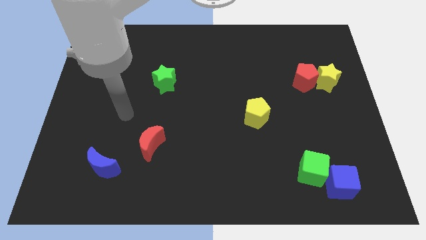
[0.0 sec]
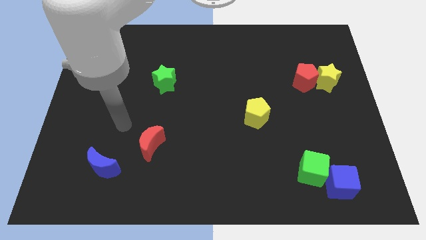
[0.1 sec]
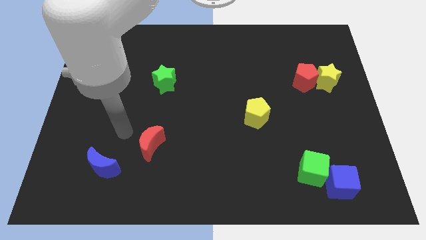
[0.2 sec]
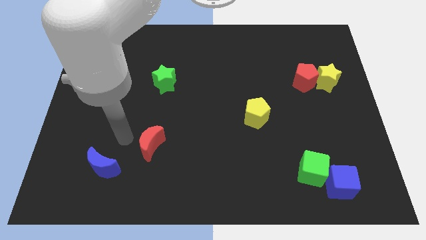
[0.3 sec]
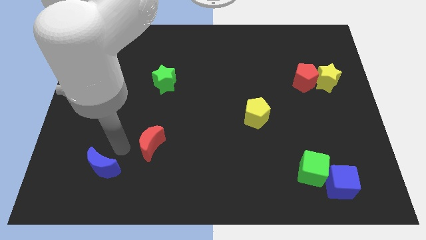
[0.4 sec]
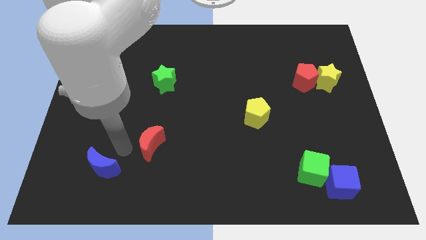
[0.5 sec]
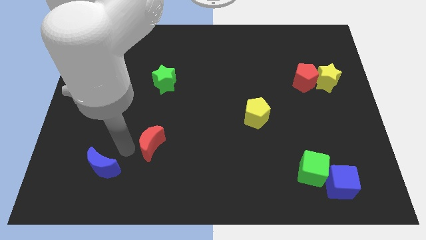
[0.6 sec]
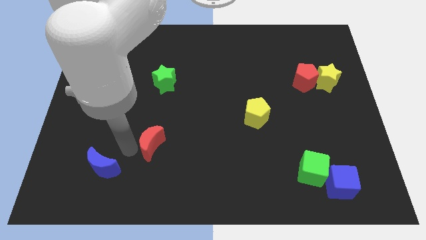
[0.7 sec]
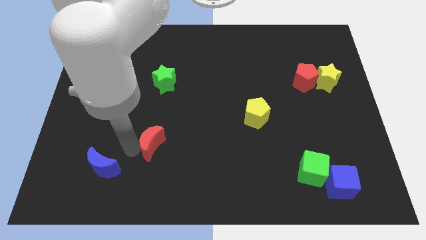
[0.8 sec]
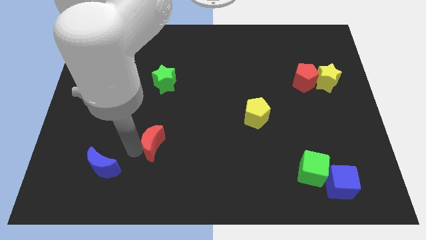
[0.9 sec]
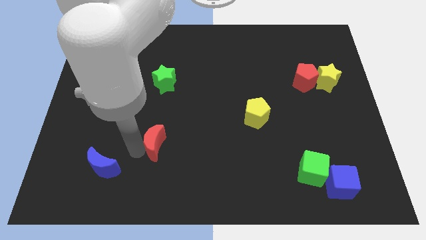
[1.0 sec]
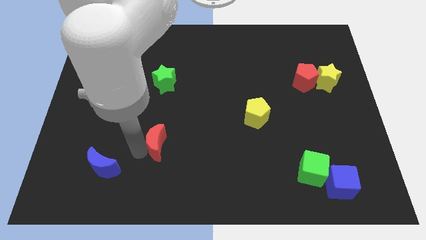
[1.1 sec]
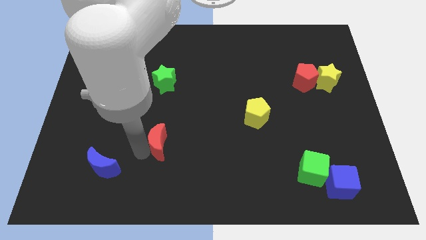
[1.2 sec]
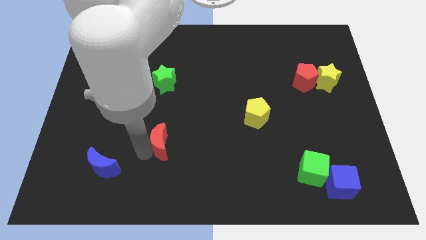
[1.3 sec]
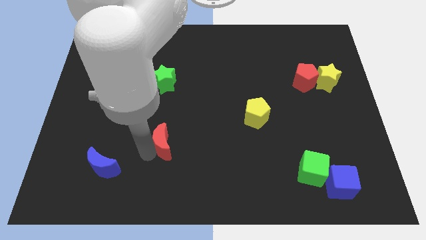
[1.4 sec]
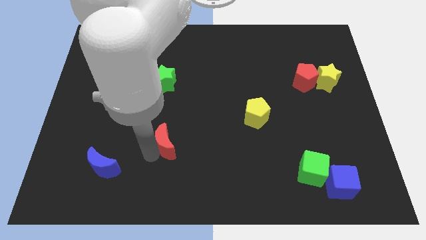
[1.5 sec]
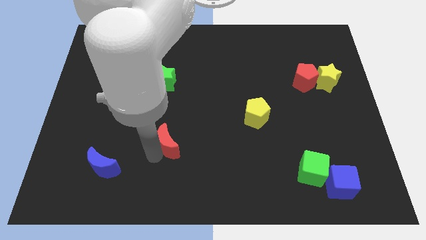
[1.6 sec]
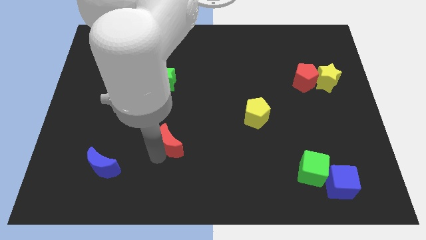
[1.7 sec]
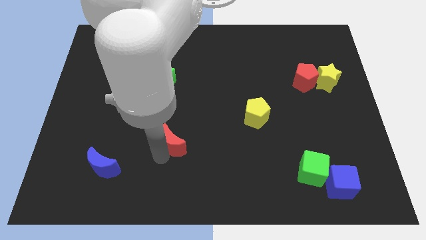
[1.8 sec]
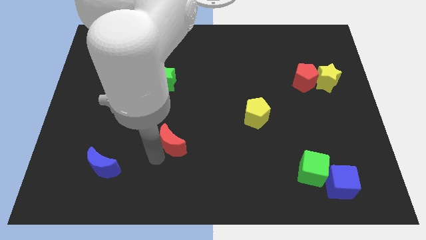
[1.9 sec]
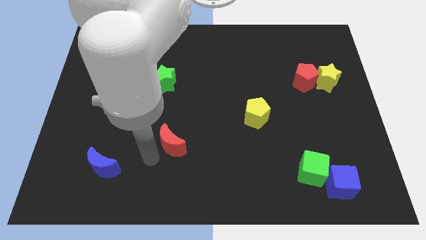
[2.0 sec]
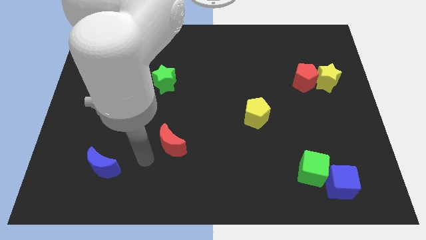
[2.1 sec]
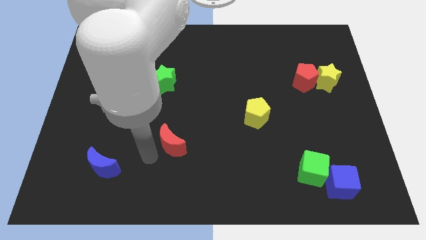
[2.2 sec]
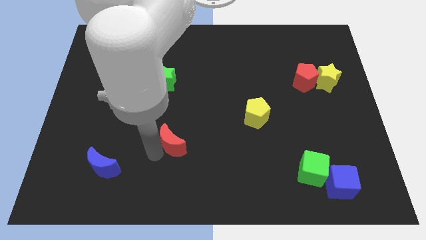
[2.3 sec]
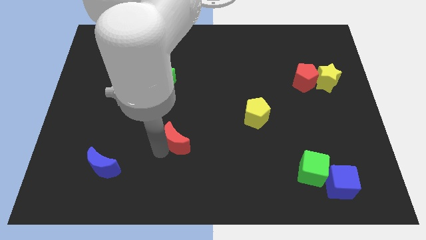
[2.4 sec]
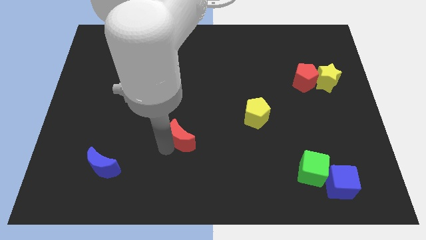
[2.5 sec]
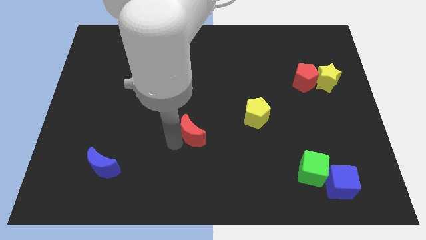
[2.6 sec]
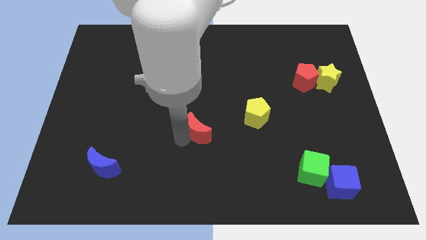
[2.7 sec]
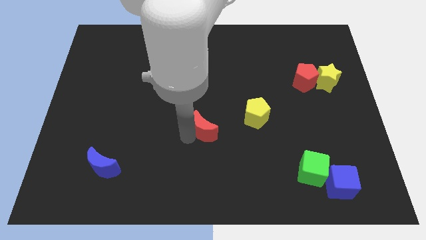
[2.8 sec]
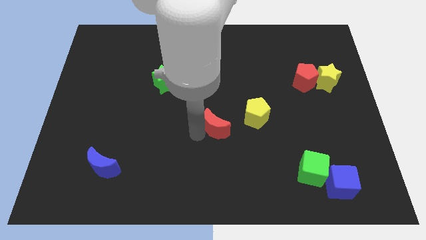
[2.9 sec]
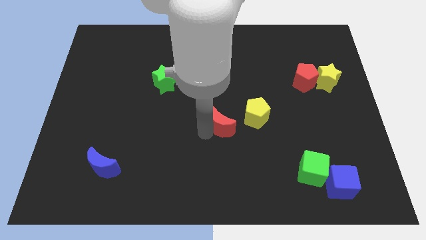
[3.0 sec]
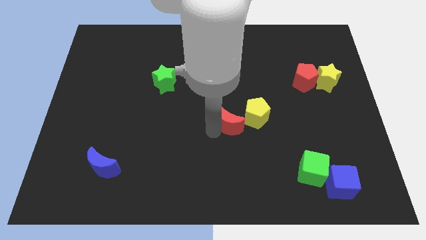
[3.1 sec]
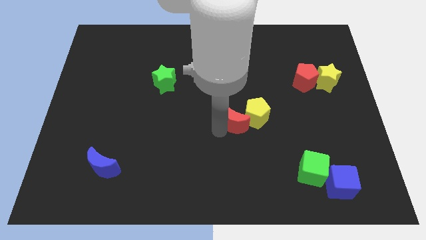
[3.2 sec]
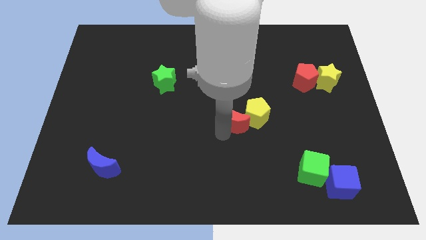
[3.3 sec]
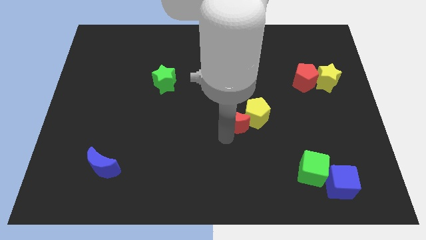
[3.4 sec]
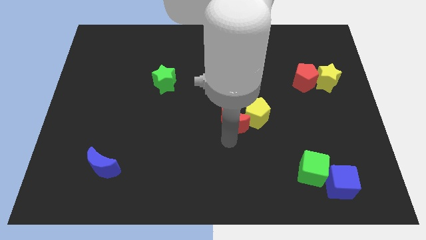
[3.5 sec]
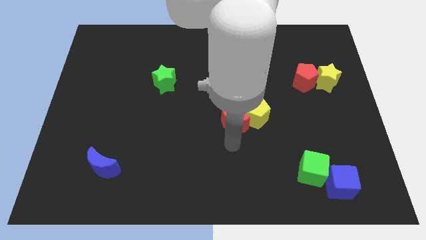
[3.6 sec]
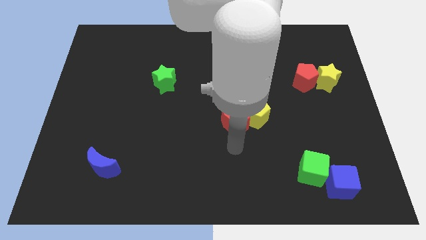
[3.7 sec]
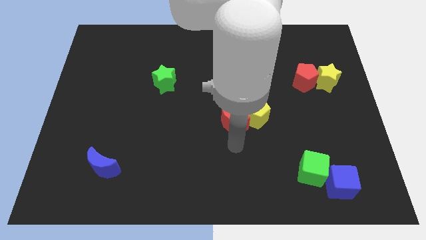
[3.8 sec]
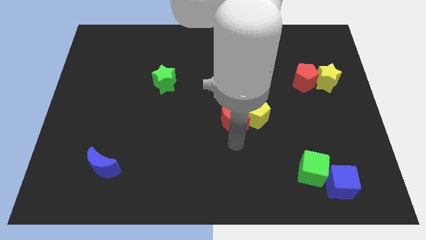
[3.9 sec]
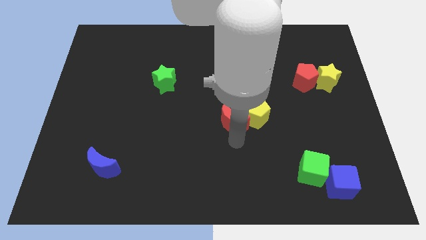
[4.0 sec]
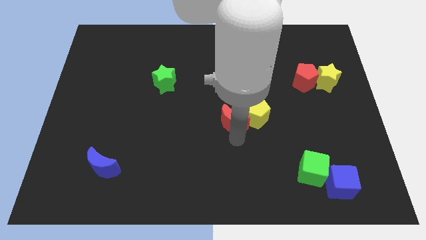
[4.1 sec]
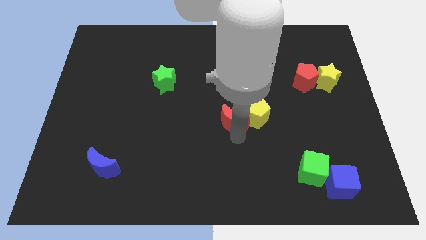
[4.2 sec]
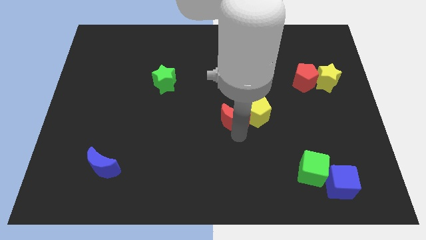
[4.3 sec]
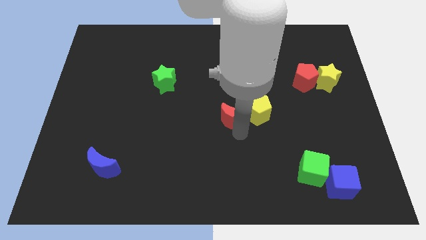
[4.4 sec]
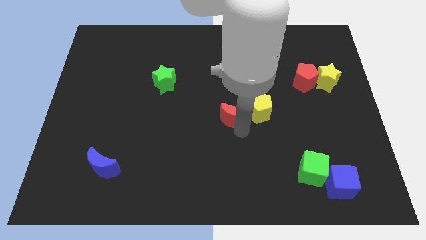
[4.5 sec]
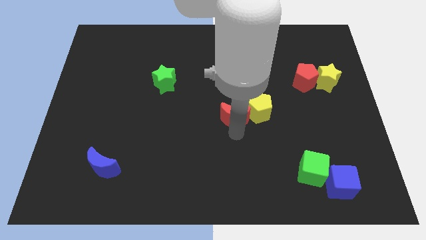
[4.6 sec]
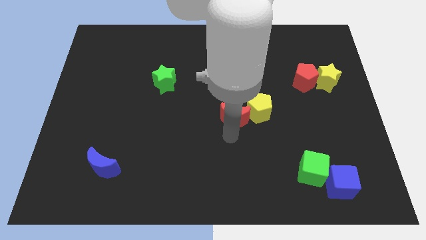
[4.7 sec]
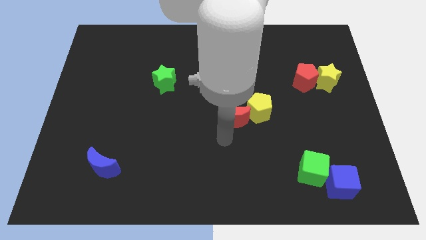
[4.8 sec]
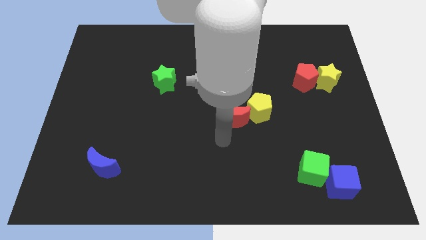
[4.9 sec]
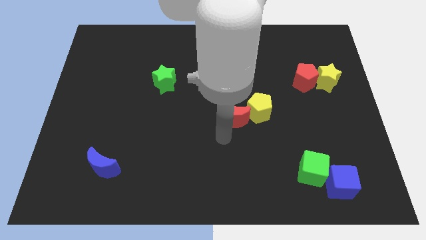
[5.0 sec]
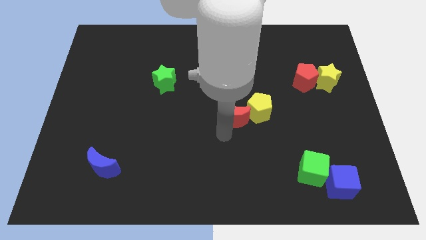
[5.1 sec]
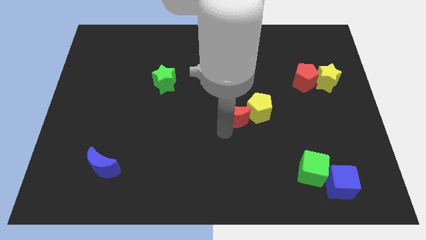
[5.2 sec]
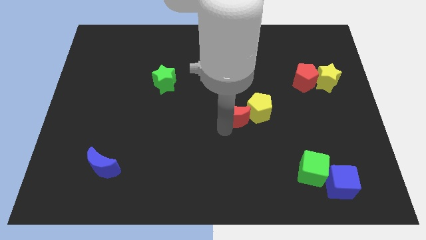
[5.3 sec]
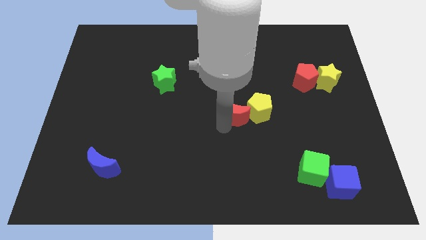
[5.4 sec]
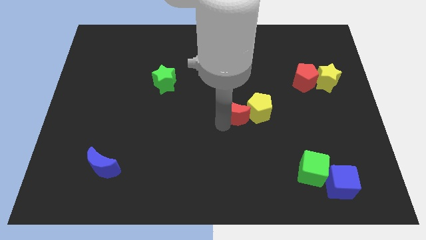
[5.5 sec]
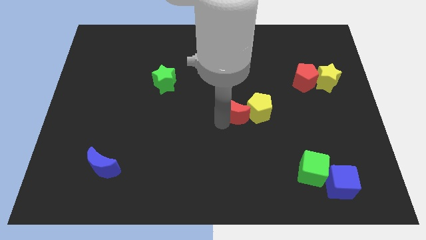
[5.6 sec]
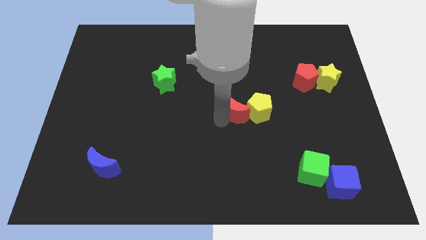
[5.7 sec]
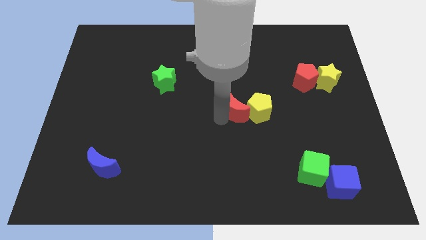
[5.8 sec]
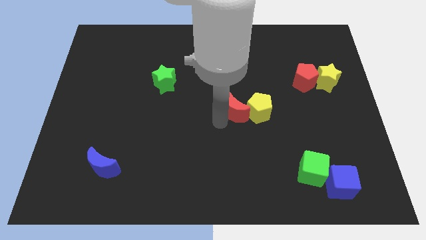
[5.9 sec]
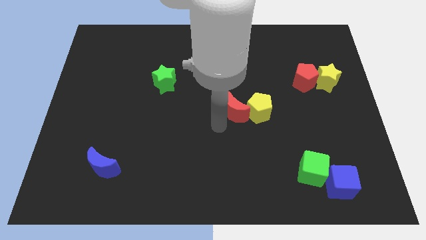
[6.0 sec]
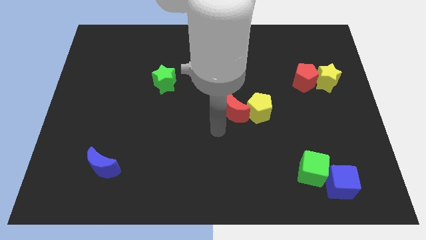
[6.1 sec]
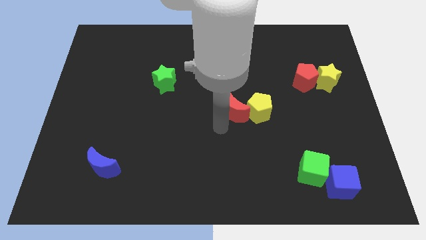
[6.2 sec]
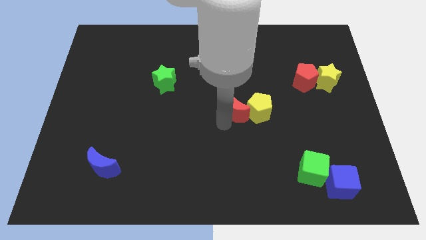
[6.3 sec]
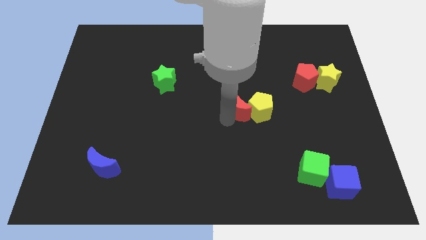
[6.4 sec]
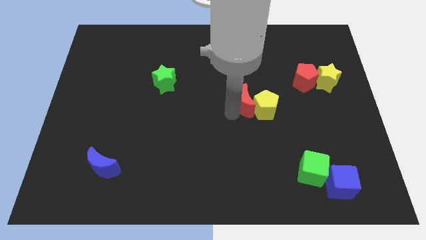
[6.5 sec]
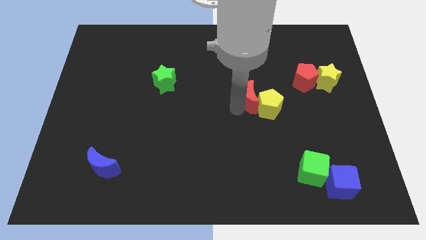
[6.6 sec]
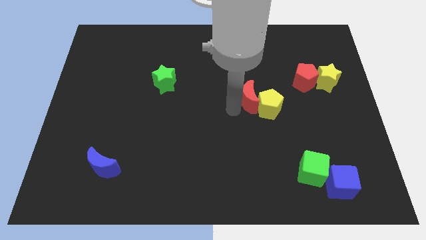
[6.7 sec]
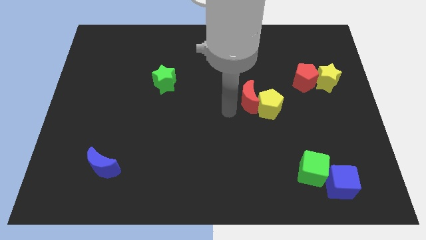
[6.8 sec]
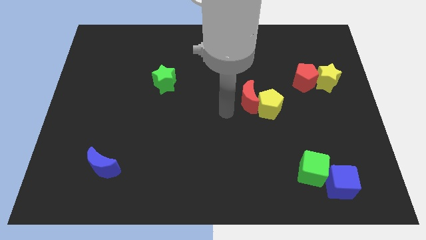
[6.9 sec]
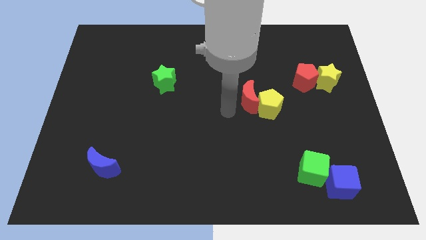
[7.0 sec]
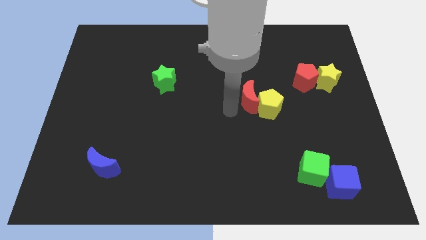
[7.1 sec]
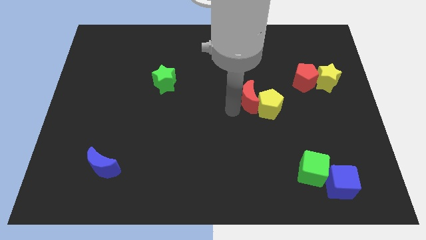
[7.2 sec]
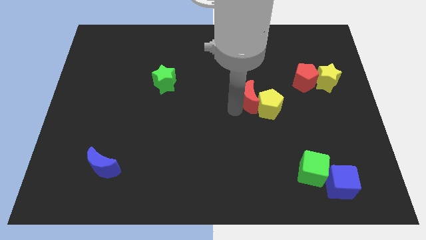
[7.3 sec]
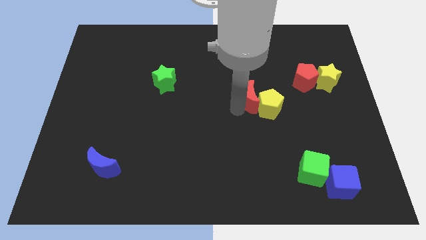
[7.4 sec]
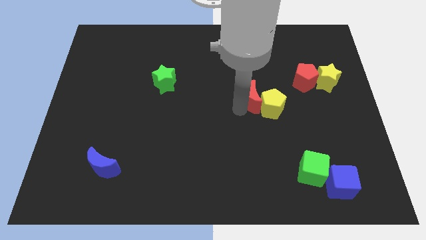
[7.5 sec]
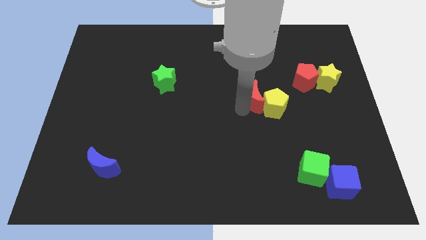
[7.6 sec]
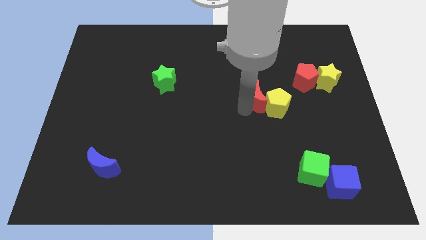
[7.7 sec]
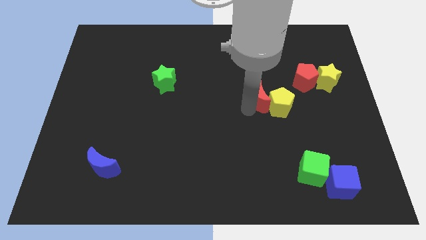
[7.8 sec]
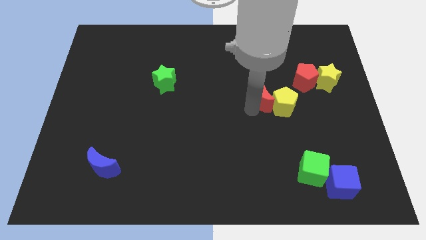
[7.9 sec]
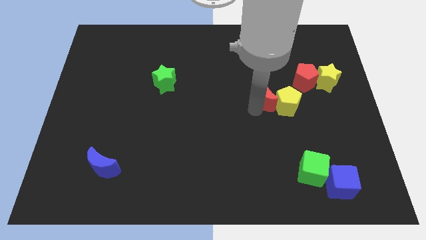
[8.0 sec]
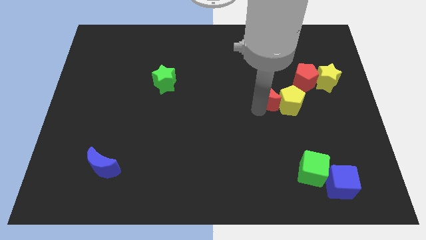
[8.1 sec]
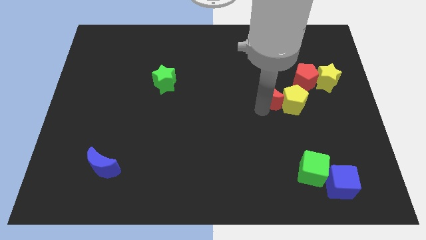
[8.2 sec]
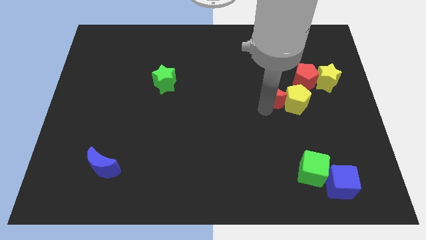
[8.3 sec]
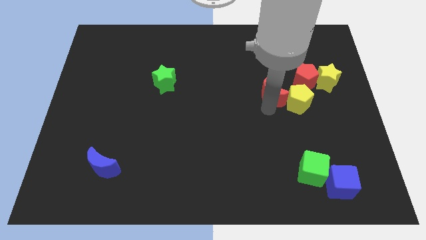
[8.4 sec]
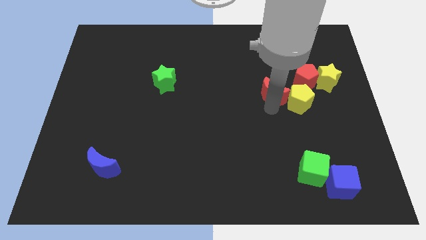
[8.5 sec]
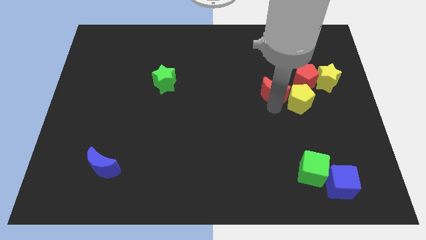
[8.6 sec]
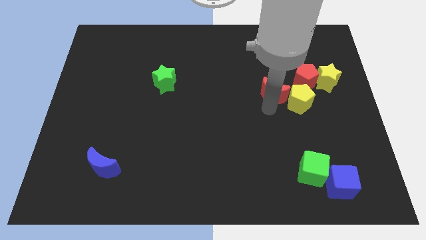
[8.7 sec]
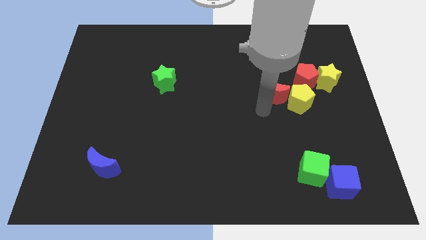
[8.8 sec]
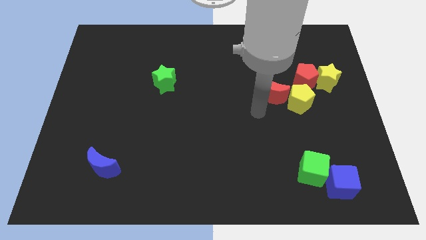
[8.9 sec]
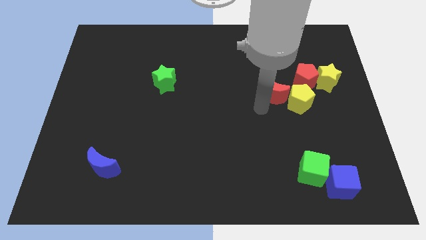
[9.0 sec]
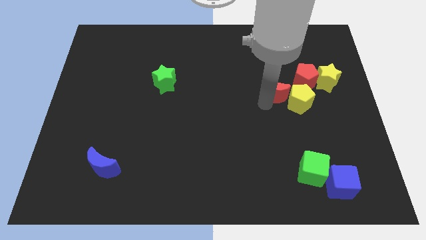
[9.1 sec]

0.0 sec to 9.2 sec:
move the red moon to the left side of the yellow star
